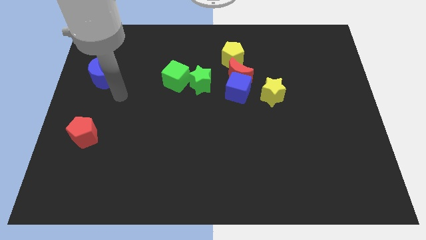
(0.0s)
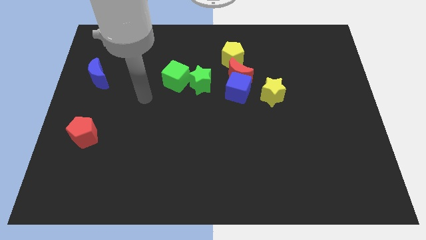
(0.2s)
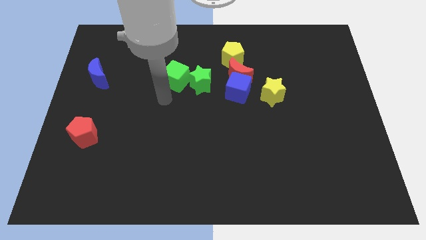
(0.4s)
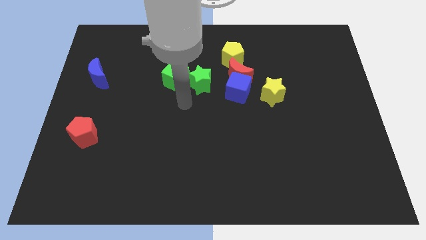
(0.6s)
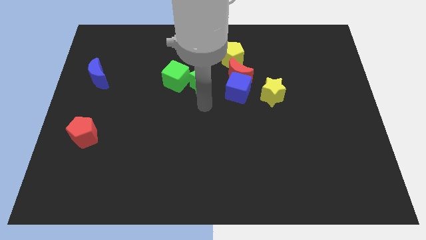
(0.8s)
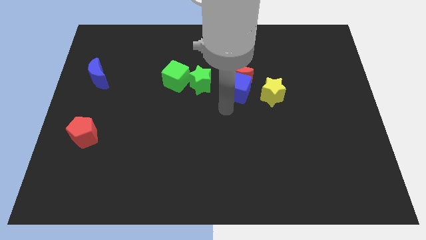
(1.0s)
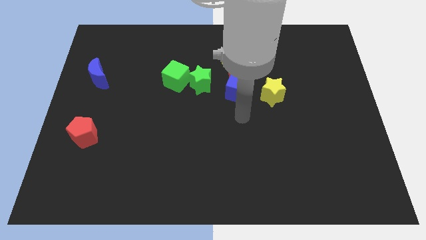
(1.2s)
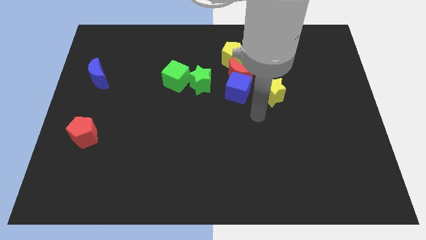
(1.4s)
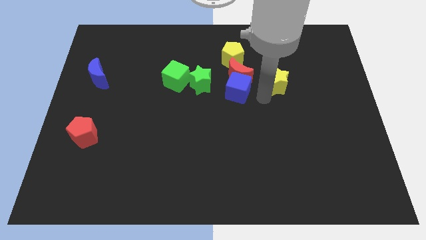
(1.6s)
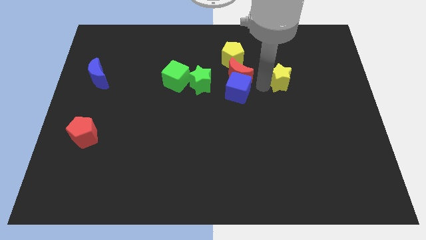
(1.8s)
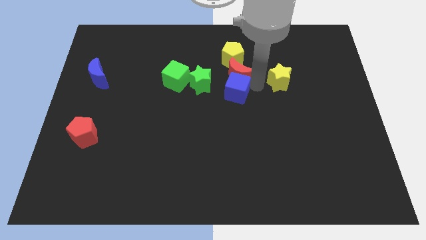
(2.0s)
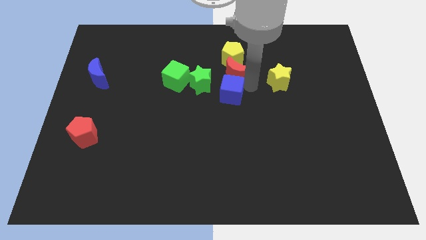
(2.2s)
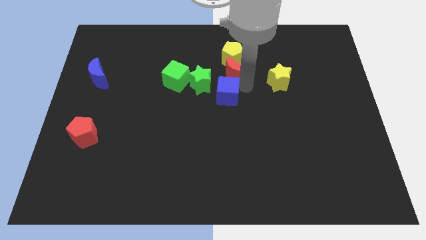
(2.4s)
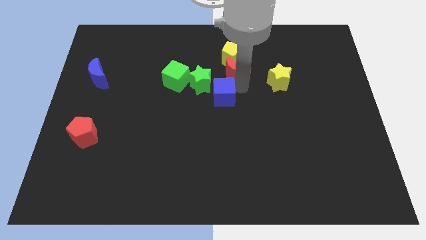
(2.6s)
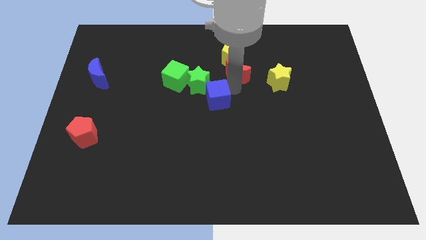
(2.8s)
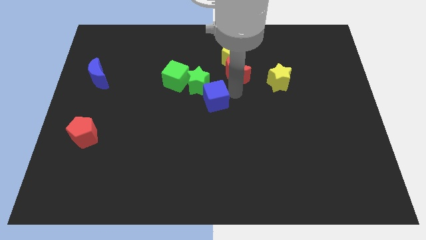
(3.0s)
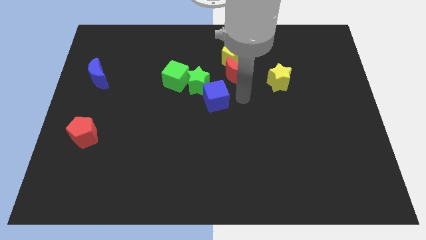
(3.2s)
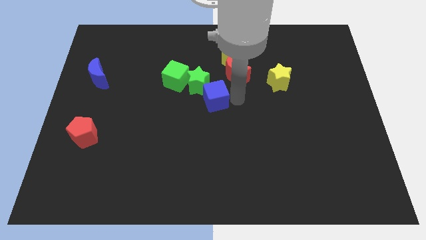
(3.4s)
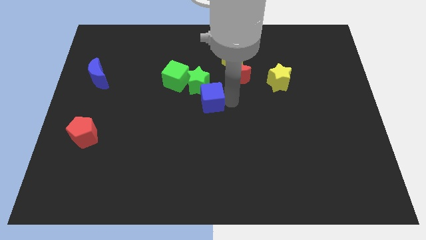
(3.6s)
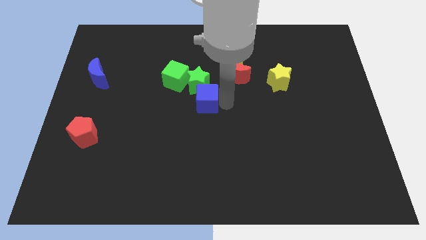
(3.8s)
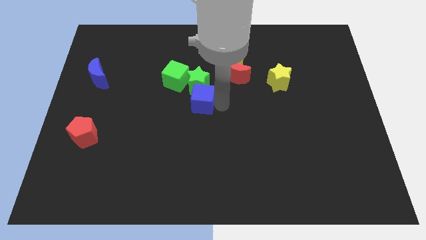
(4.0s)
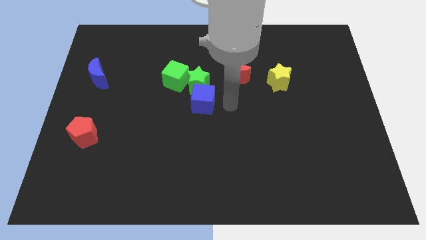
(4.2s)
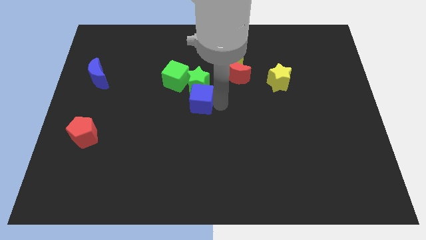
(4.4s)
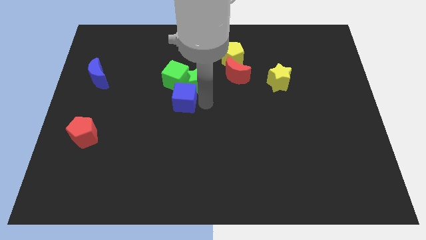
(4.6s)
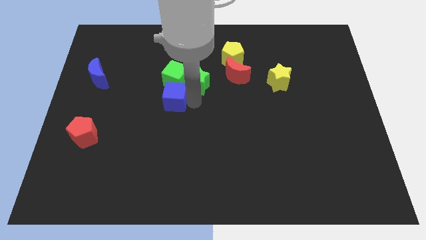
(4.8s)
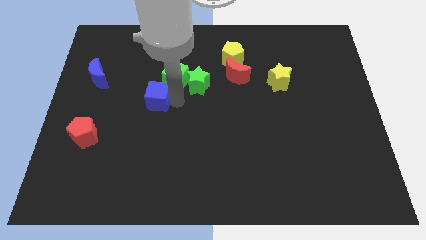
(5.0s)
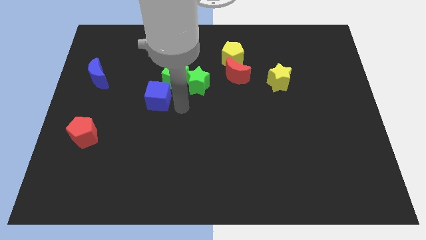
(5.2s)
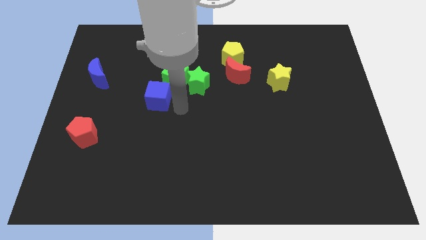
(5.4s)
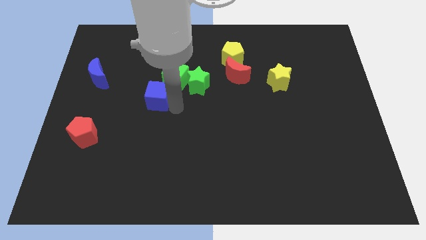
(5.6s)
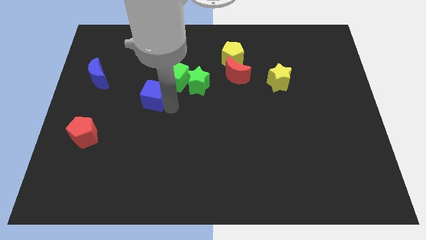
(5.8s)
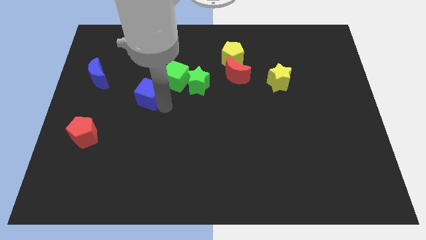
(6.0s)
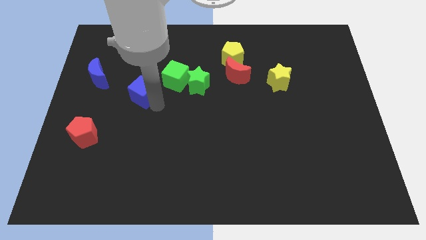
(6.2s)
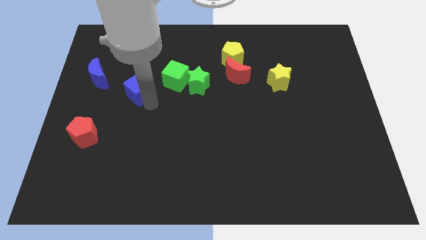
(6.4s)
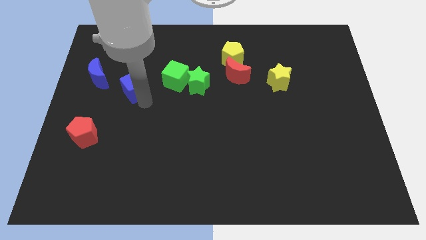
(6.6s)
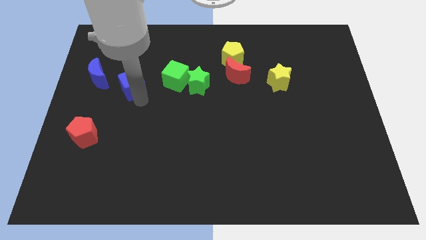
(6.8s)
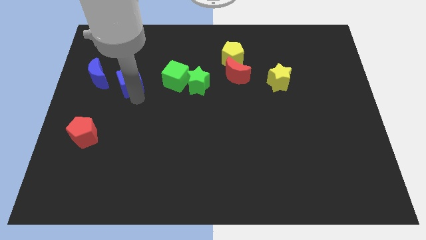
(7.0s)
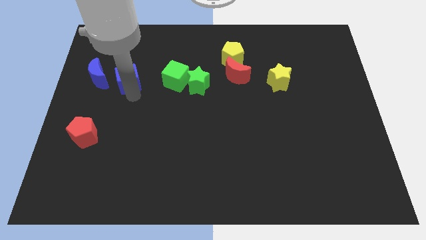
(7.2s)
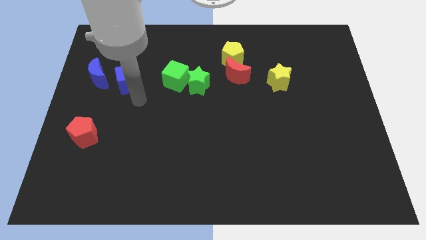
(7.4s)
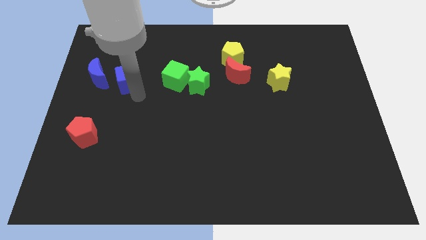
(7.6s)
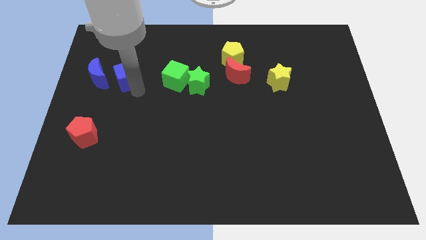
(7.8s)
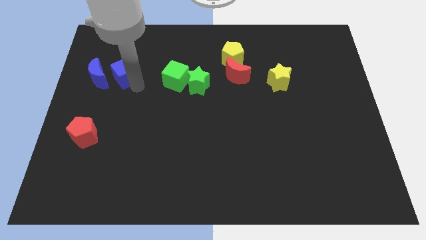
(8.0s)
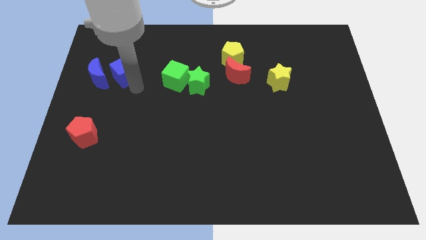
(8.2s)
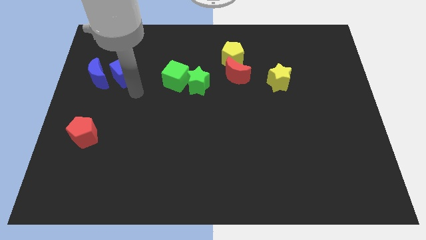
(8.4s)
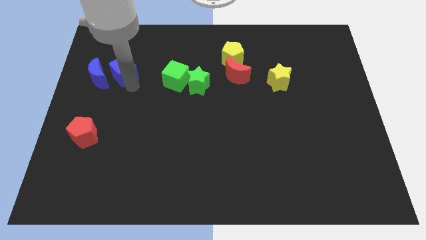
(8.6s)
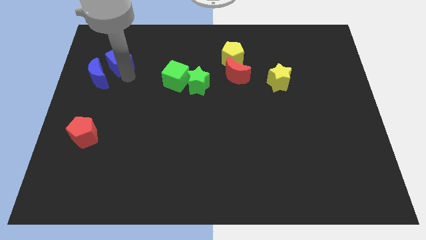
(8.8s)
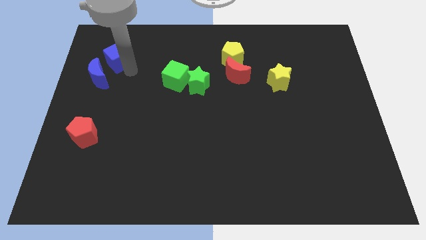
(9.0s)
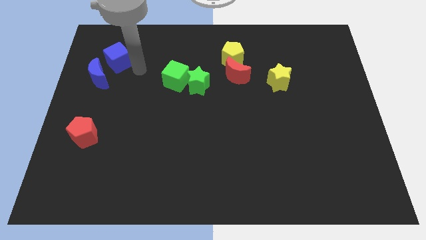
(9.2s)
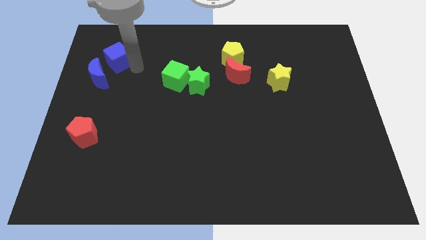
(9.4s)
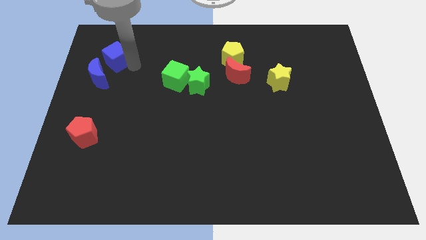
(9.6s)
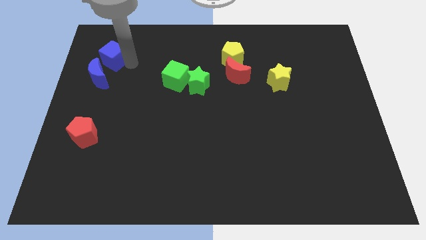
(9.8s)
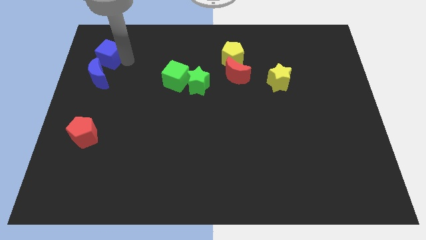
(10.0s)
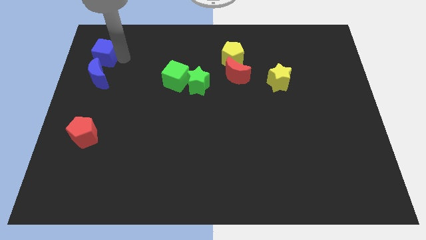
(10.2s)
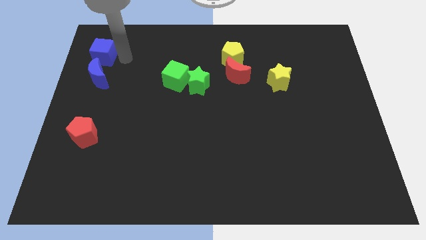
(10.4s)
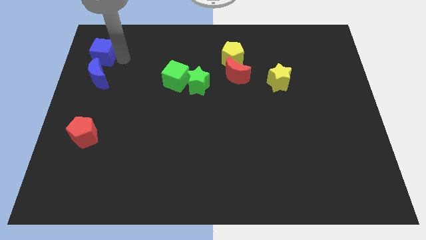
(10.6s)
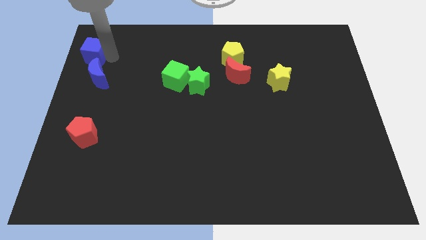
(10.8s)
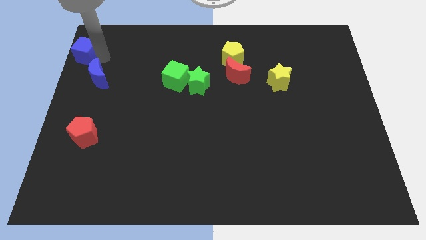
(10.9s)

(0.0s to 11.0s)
move the blue cube to the top left corner

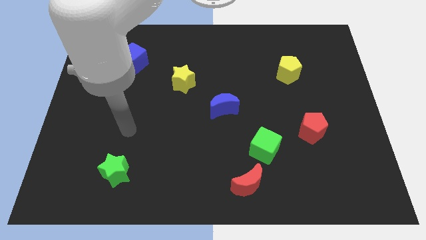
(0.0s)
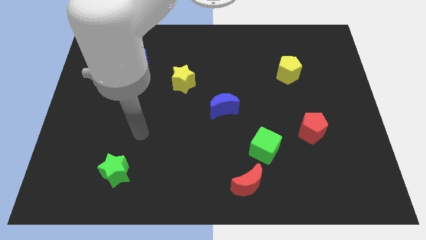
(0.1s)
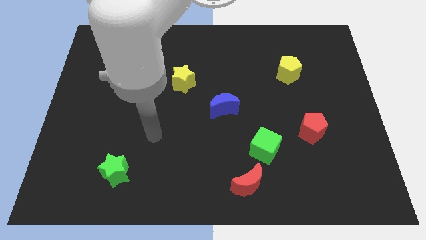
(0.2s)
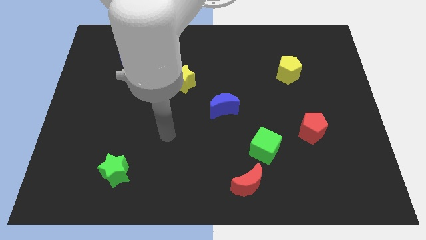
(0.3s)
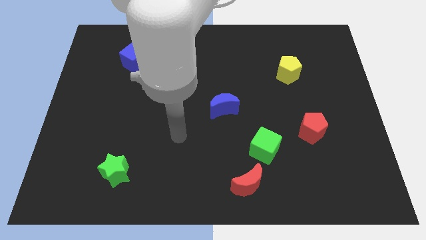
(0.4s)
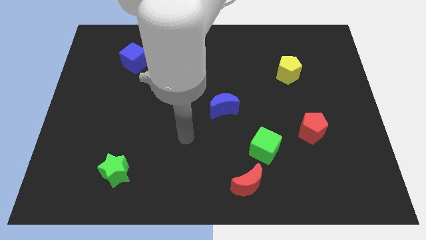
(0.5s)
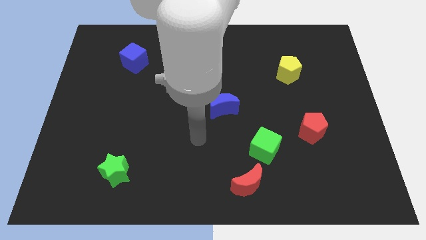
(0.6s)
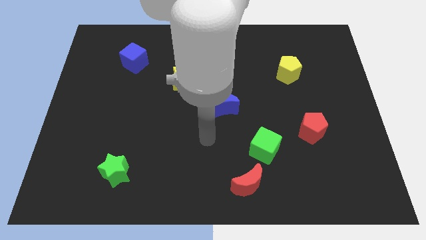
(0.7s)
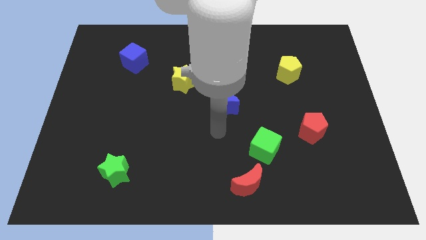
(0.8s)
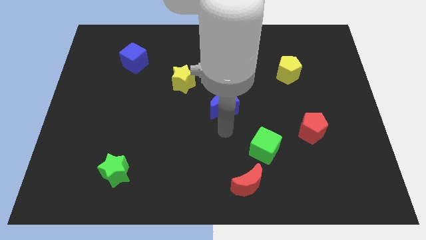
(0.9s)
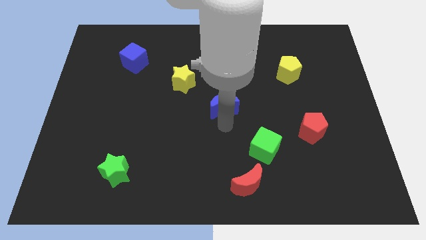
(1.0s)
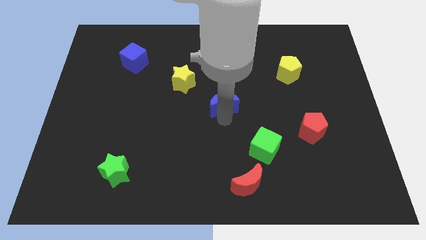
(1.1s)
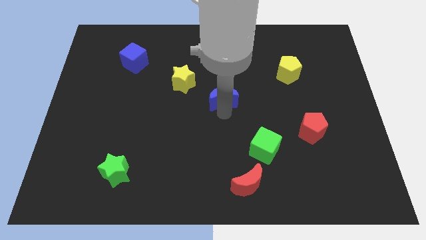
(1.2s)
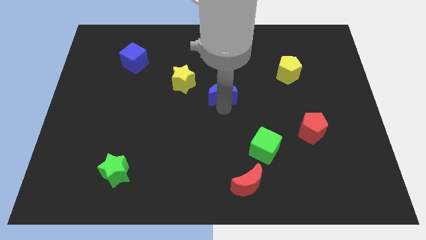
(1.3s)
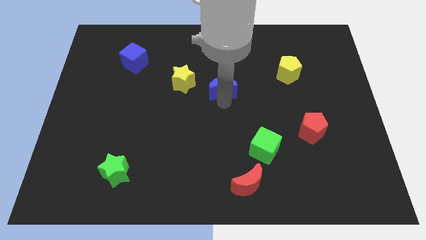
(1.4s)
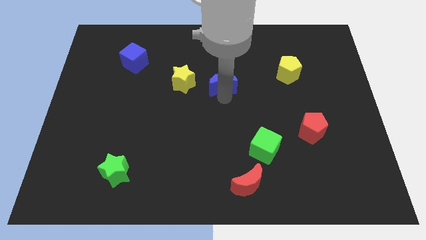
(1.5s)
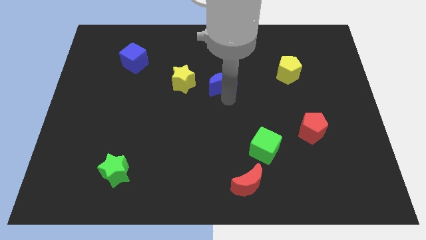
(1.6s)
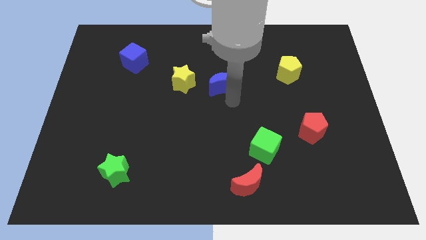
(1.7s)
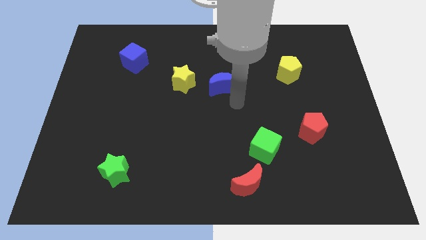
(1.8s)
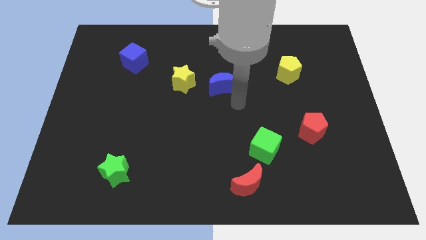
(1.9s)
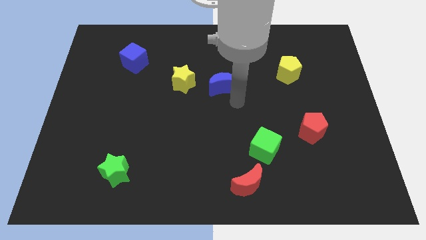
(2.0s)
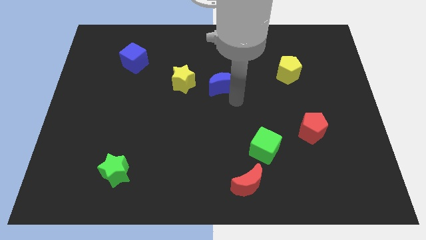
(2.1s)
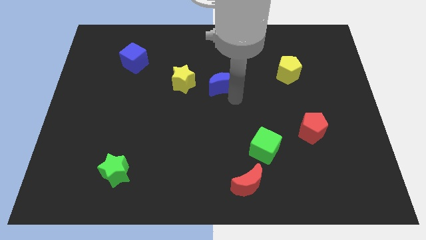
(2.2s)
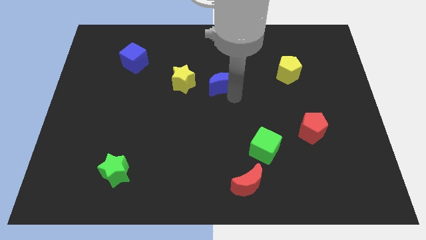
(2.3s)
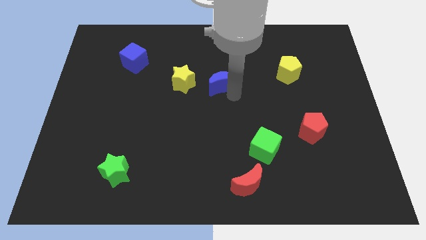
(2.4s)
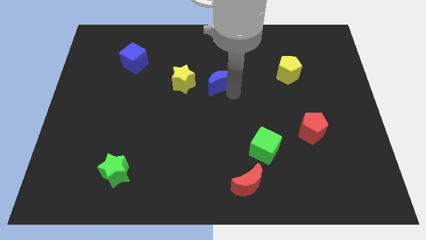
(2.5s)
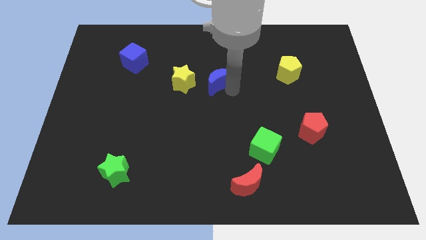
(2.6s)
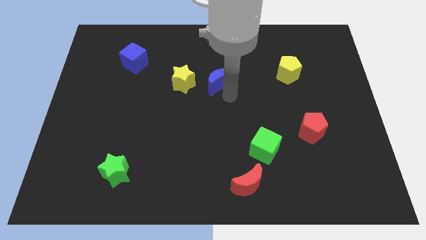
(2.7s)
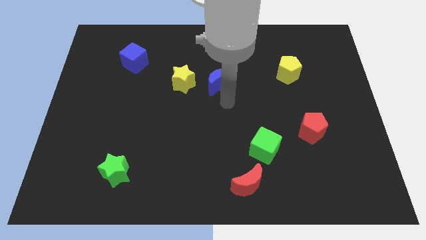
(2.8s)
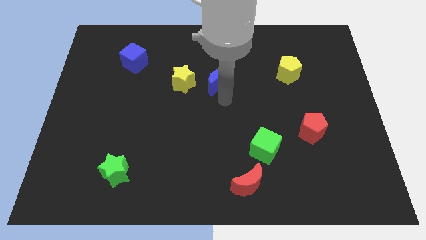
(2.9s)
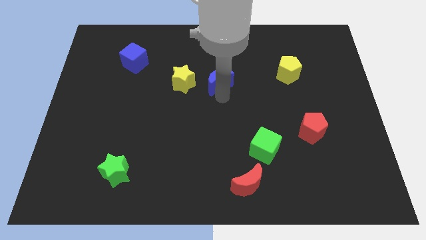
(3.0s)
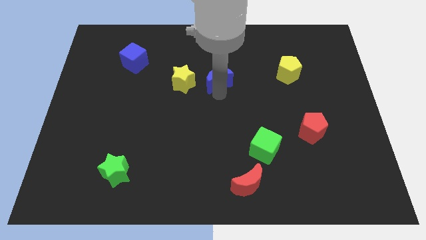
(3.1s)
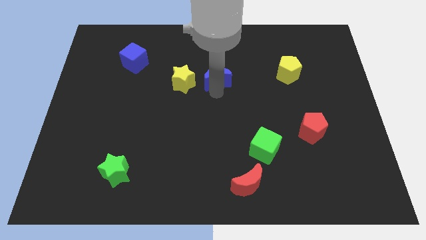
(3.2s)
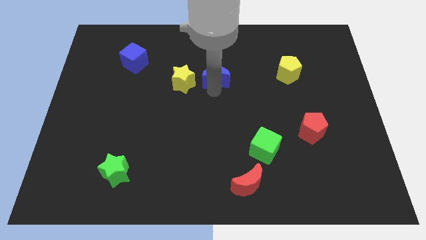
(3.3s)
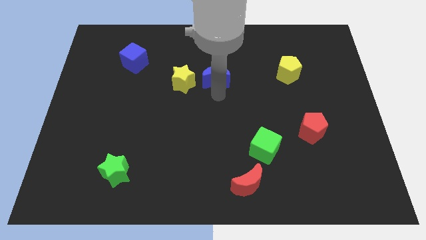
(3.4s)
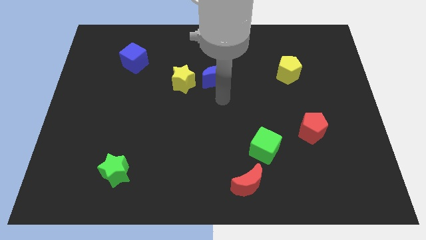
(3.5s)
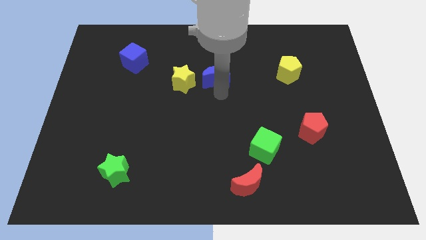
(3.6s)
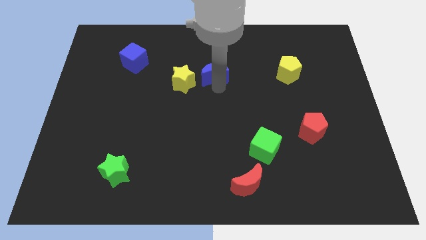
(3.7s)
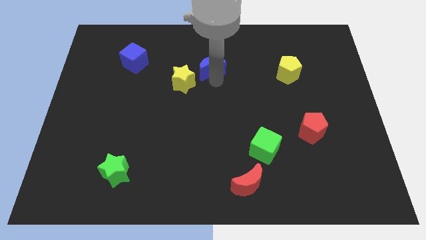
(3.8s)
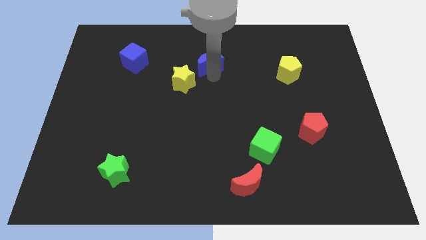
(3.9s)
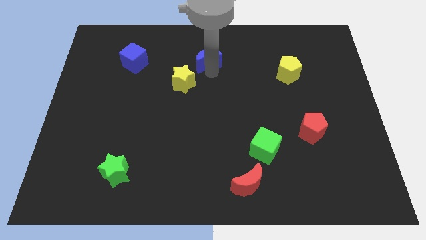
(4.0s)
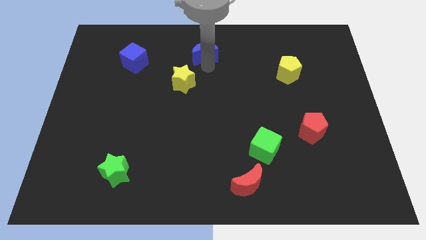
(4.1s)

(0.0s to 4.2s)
move the blue moon to the towards your base
